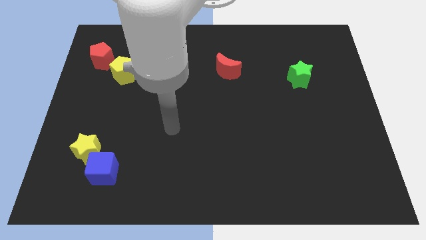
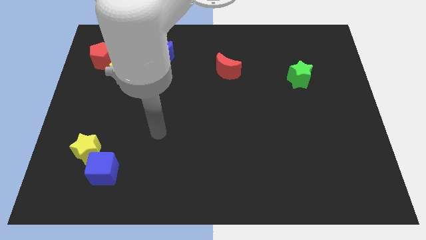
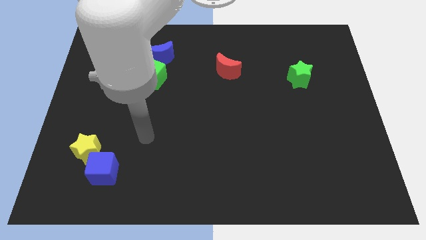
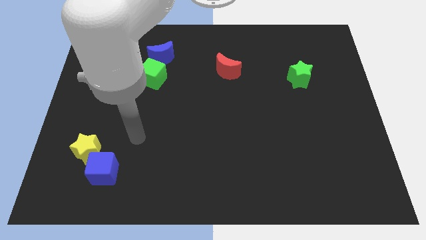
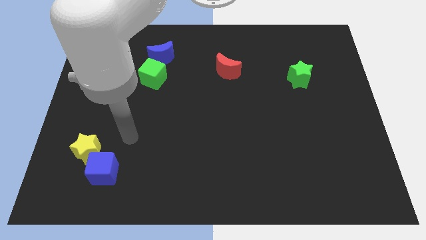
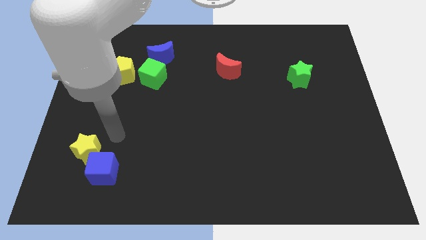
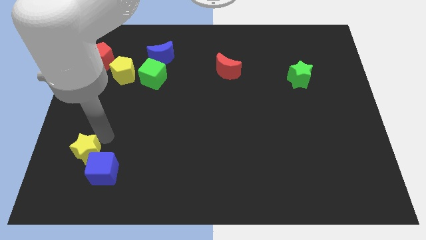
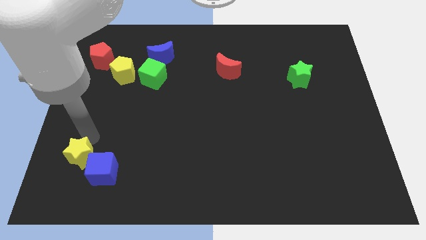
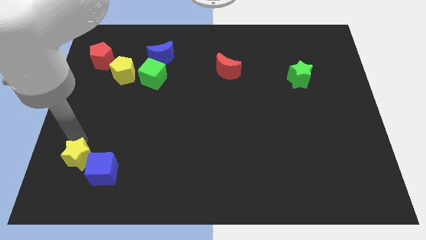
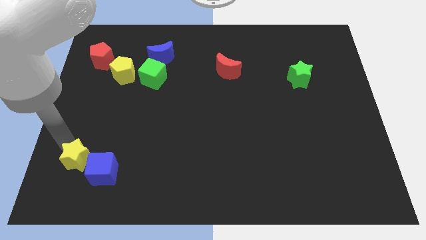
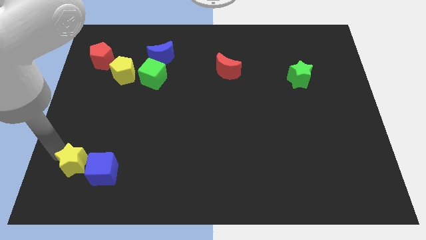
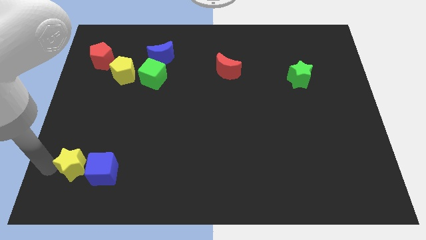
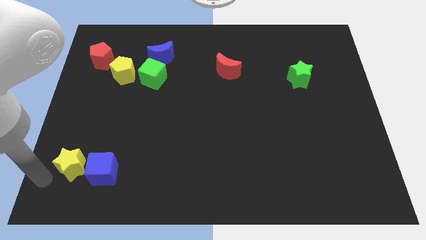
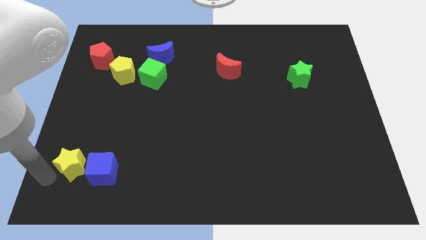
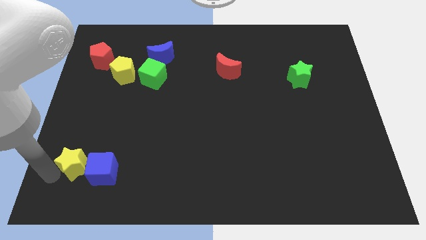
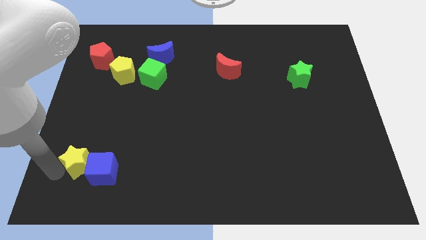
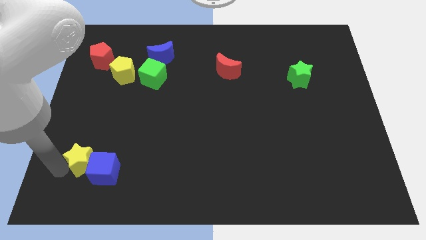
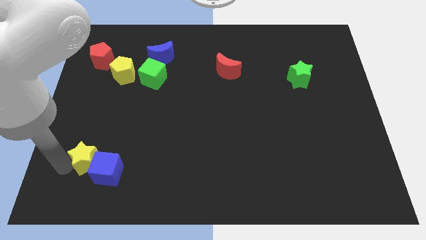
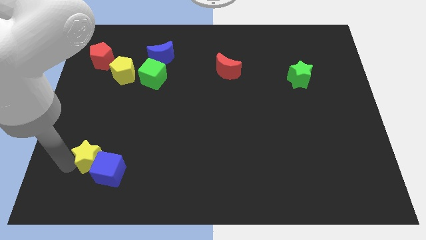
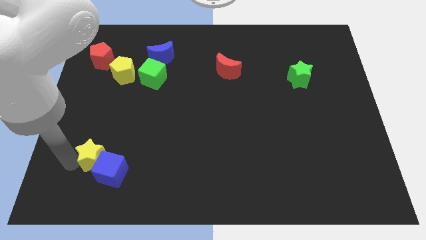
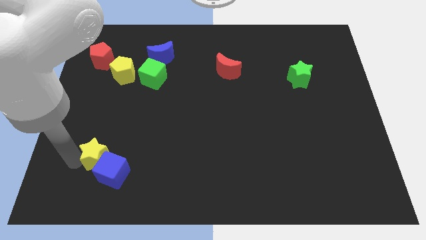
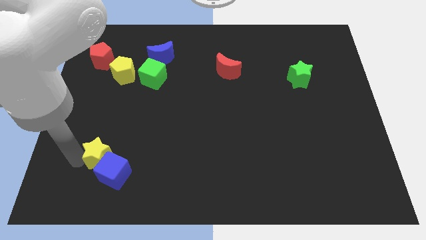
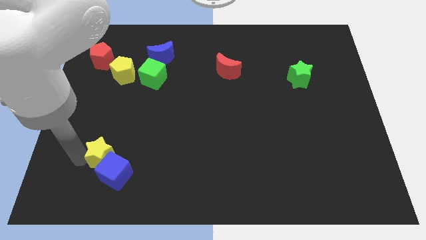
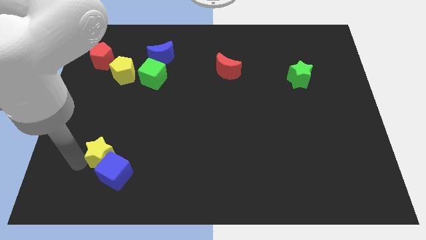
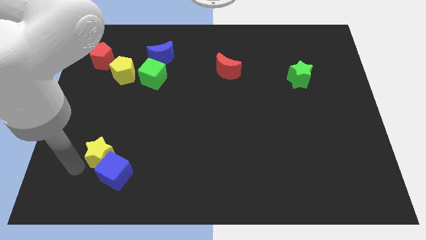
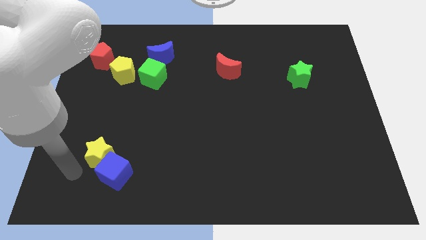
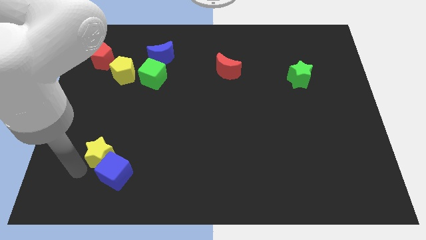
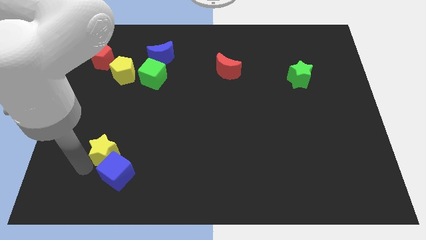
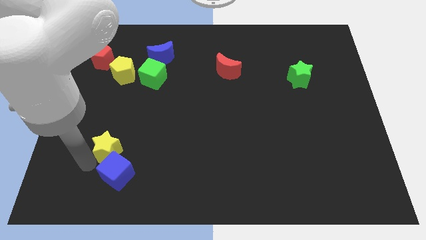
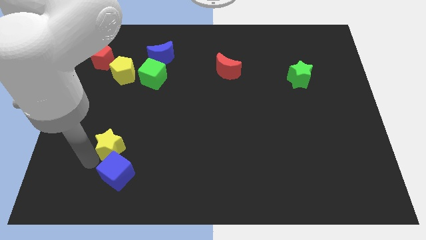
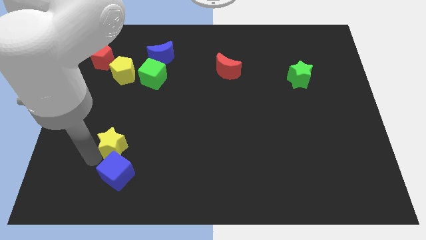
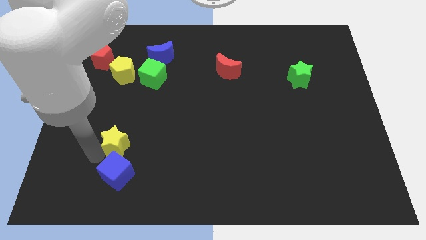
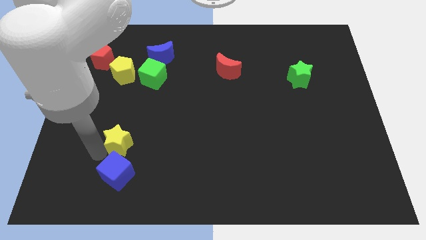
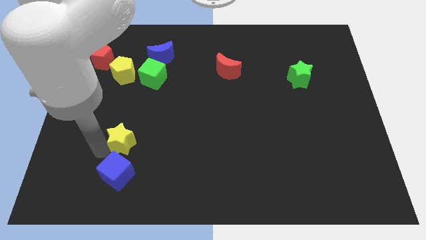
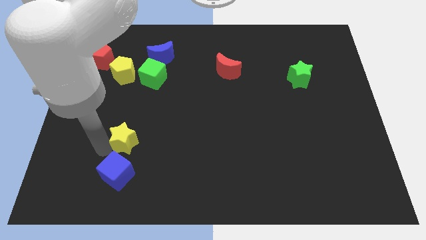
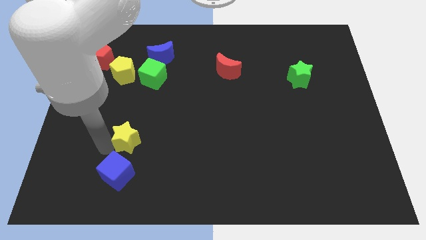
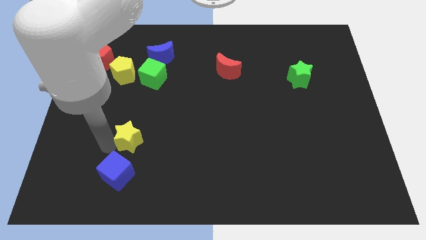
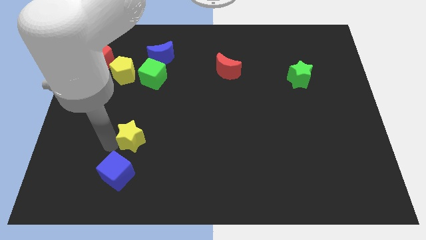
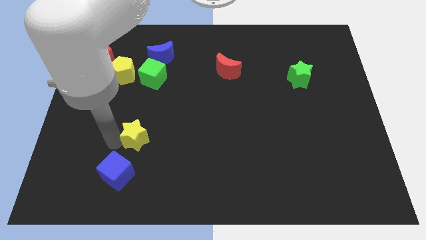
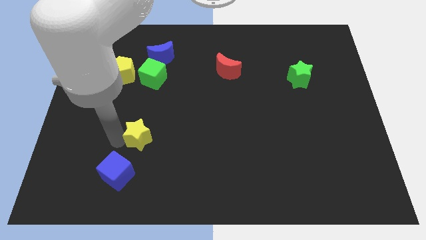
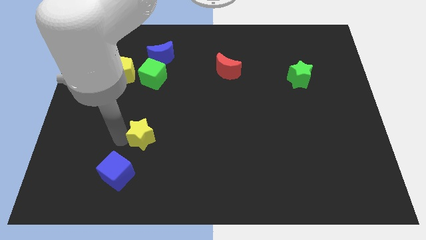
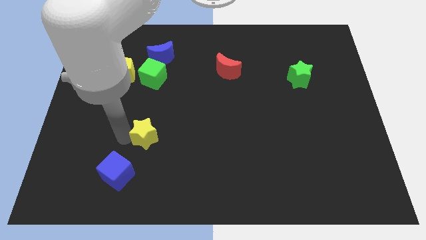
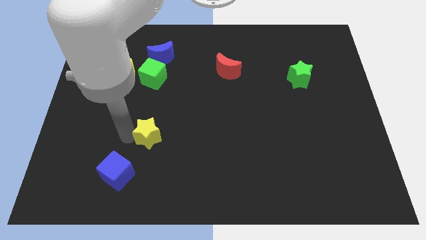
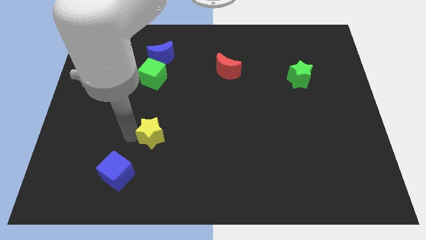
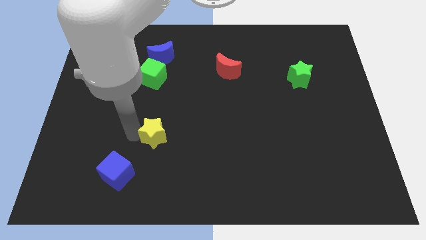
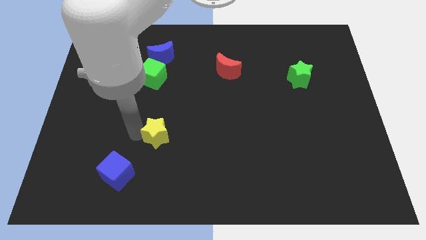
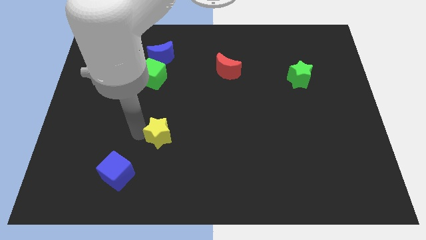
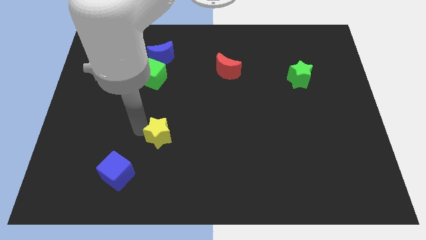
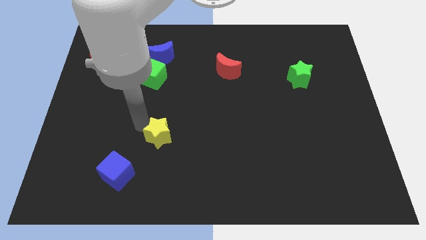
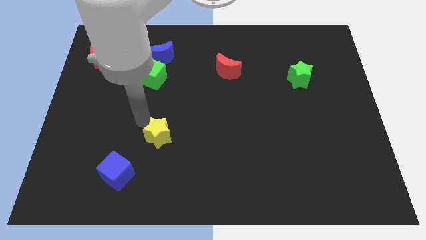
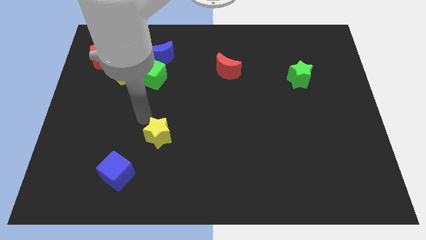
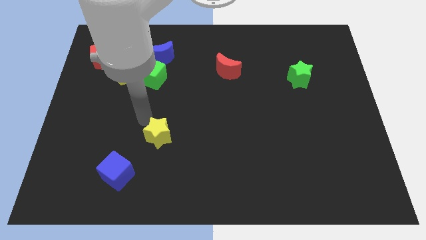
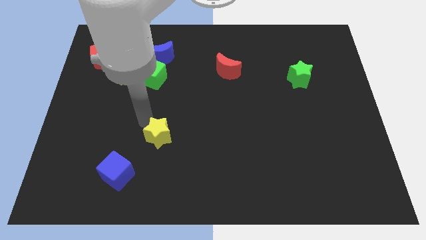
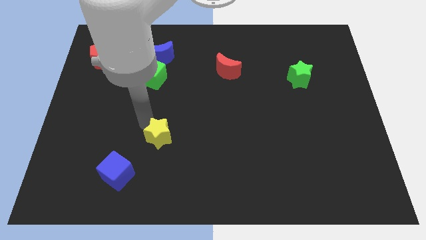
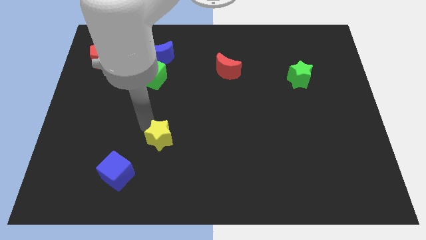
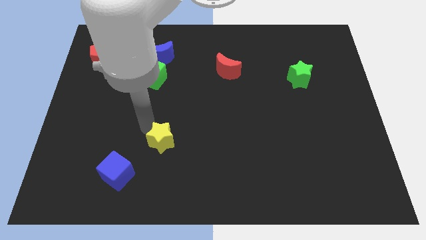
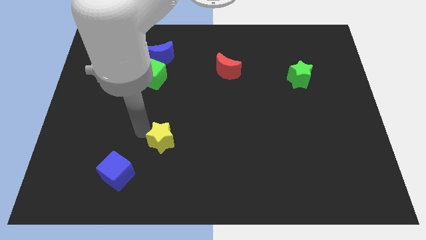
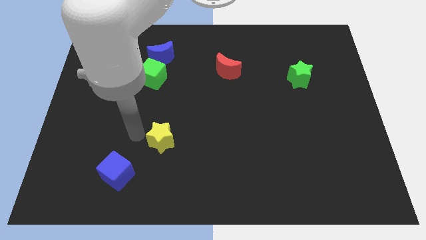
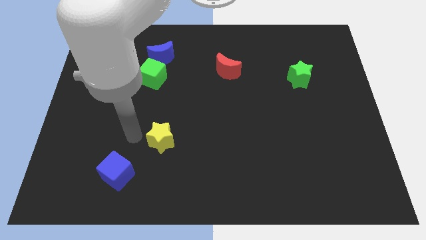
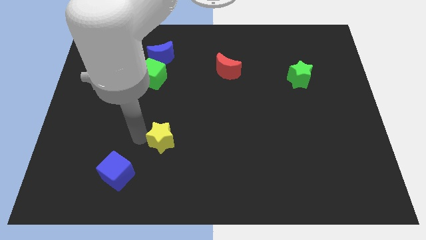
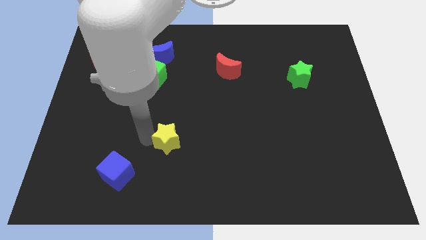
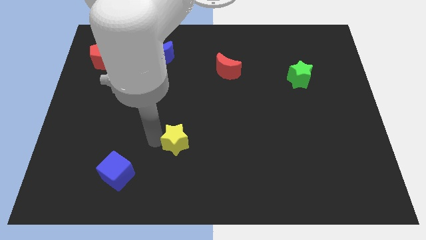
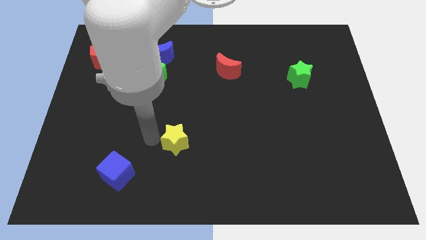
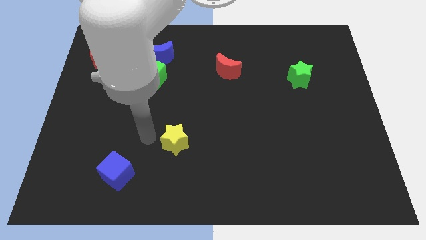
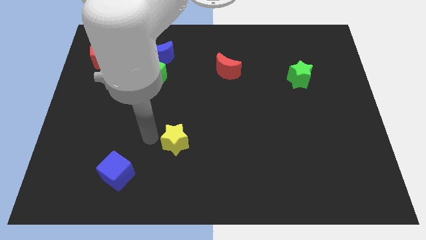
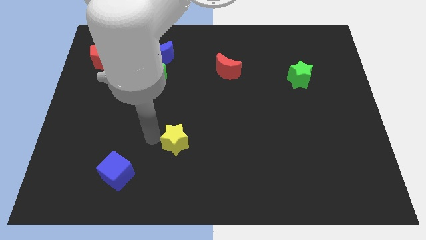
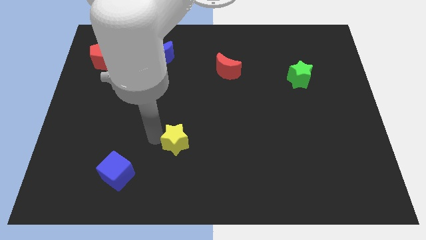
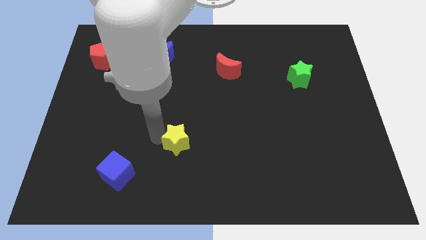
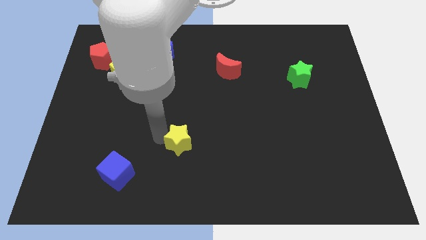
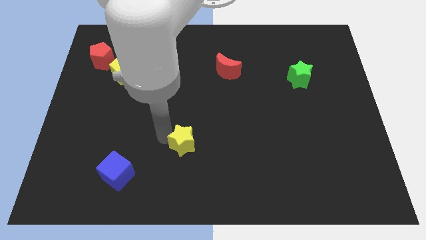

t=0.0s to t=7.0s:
push the yellow star right

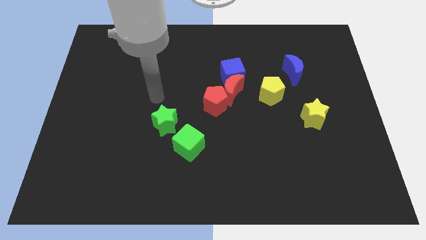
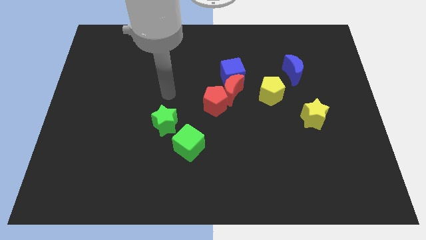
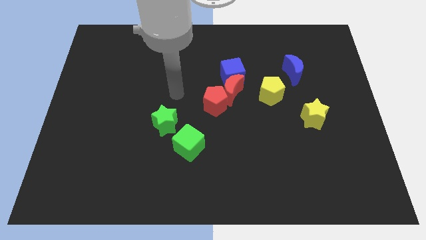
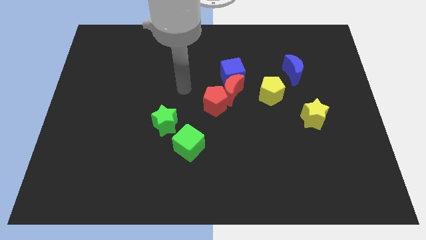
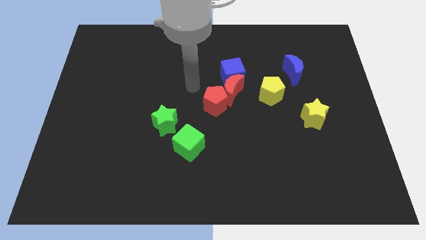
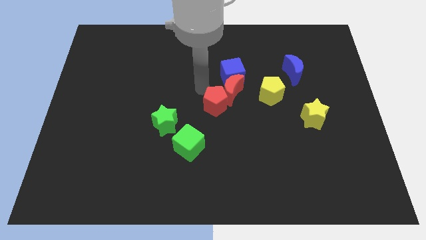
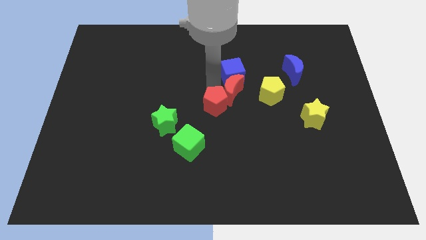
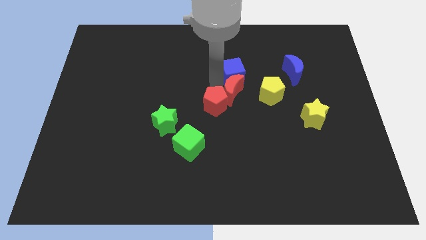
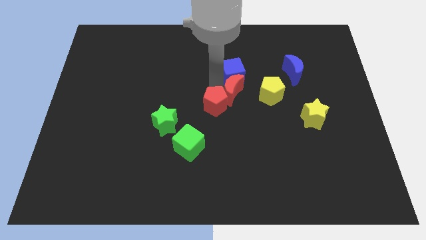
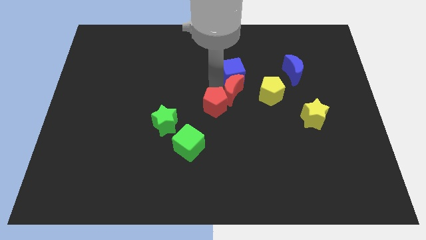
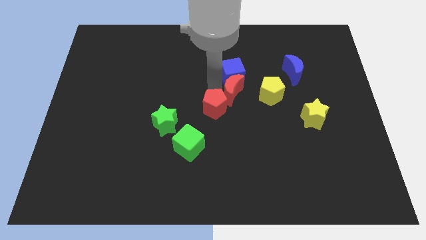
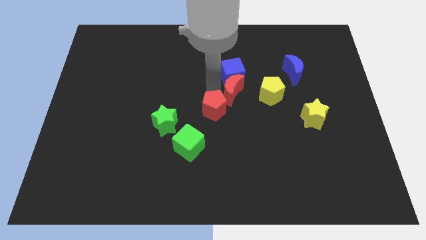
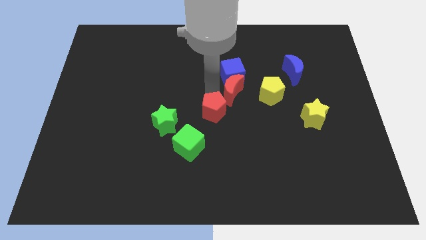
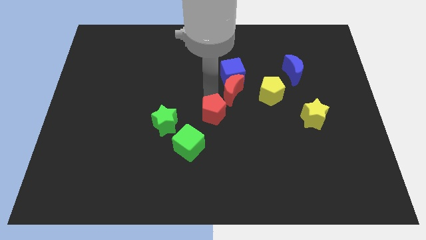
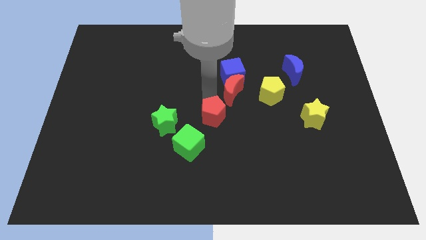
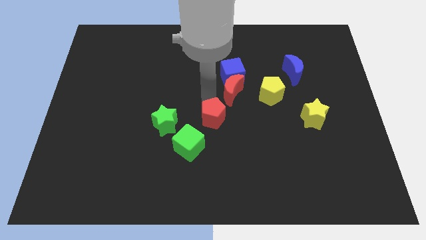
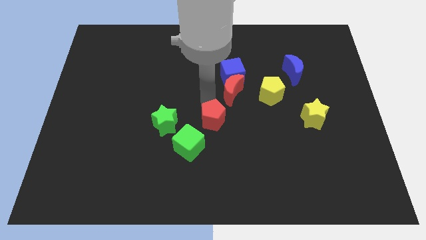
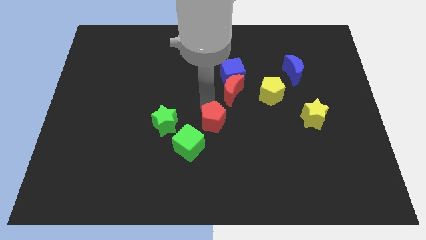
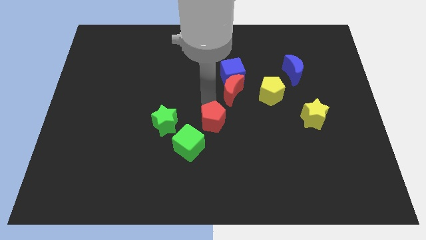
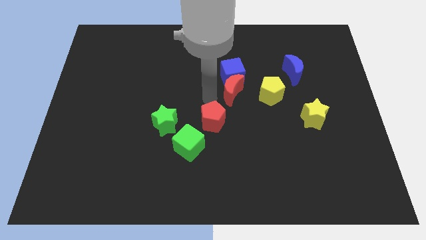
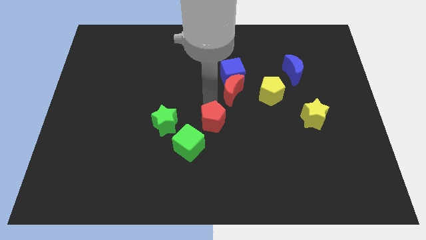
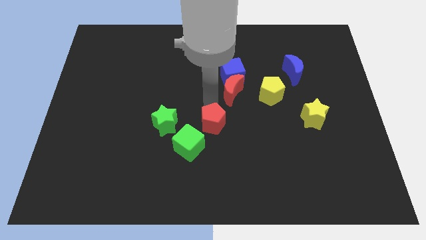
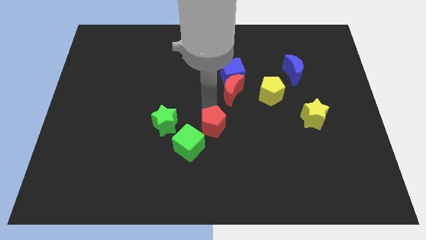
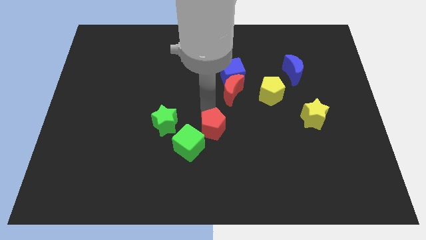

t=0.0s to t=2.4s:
slightly move the red pentagon downwards
